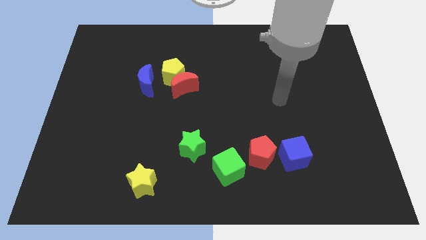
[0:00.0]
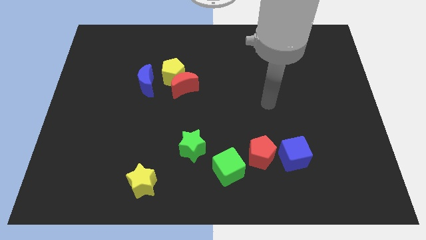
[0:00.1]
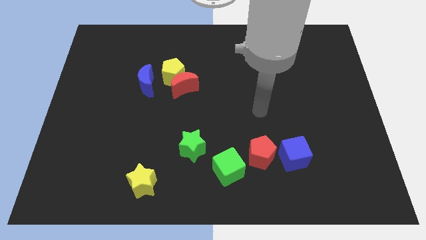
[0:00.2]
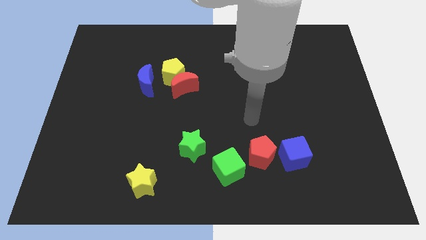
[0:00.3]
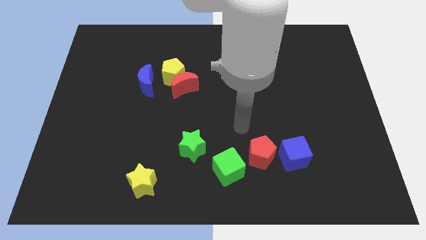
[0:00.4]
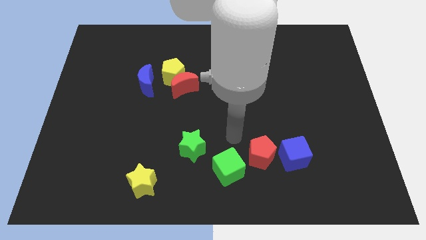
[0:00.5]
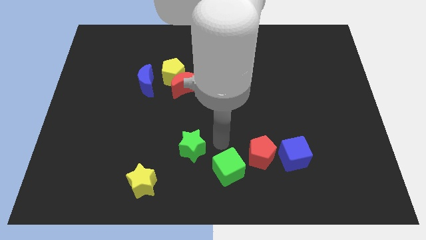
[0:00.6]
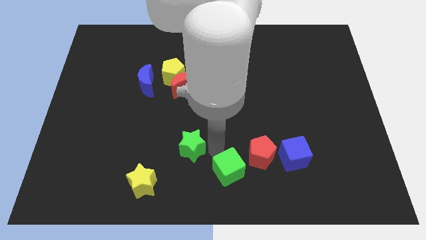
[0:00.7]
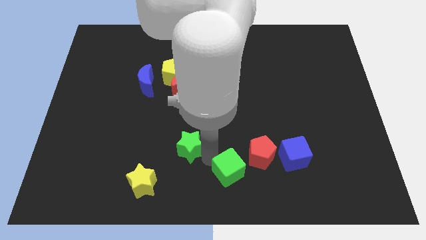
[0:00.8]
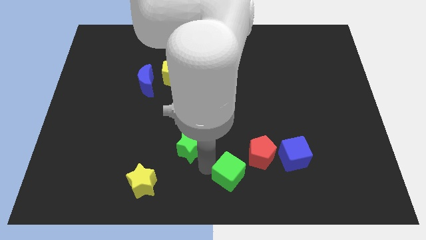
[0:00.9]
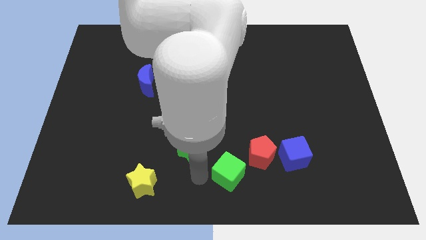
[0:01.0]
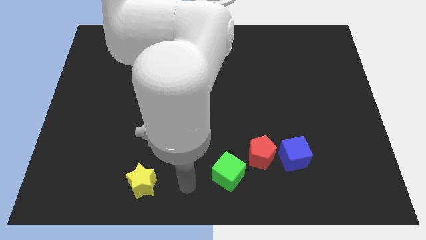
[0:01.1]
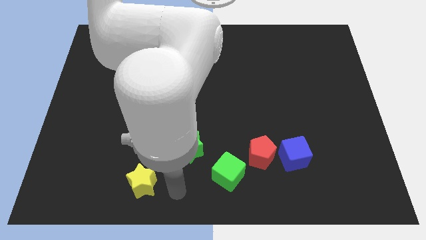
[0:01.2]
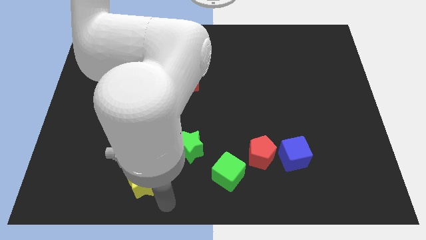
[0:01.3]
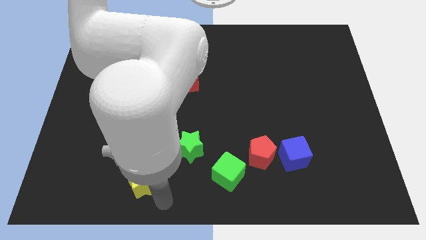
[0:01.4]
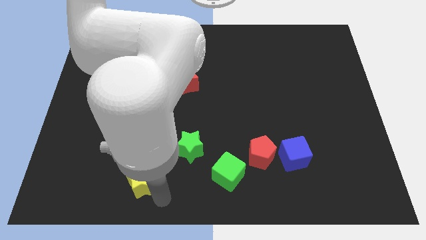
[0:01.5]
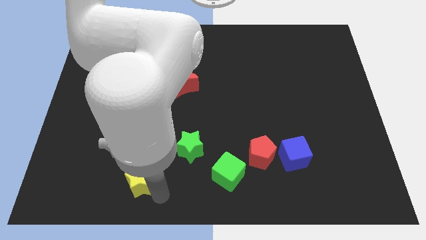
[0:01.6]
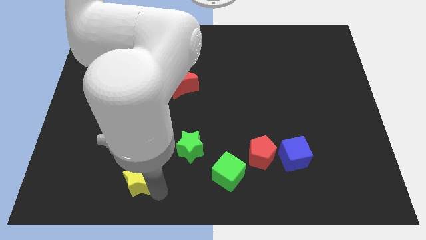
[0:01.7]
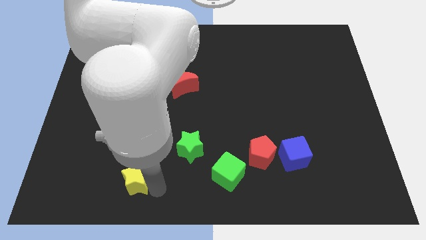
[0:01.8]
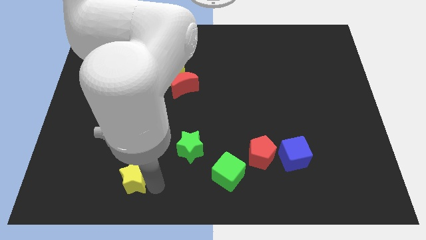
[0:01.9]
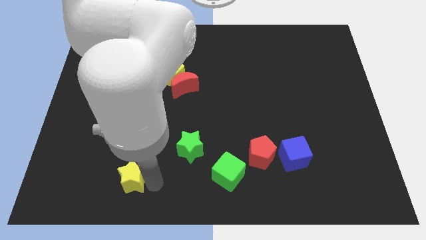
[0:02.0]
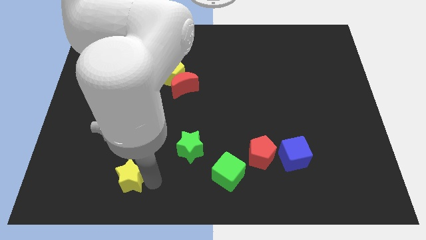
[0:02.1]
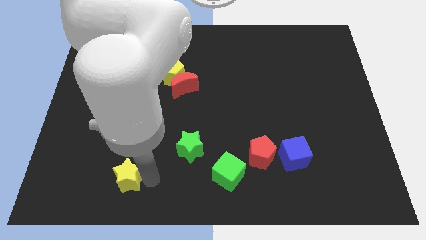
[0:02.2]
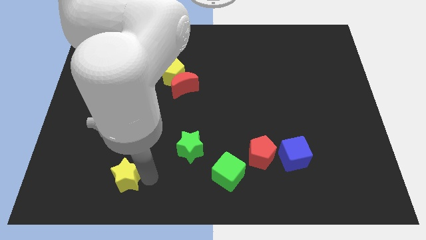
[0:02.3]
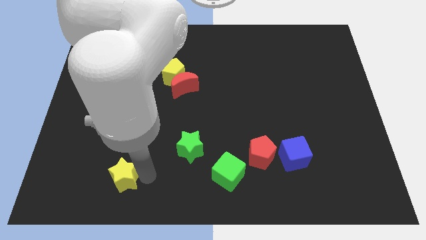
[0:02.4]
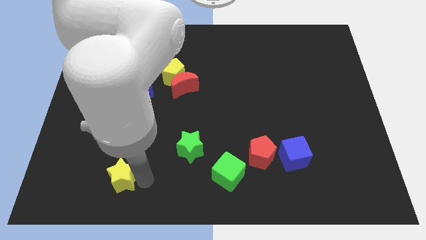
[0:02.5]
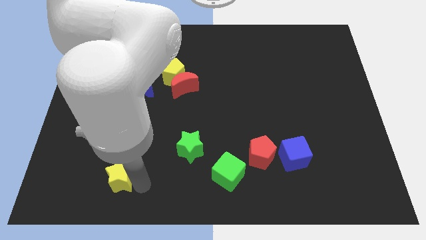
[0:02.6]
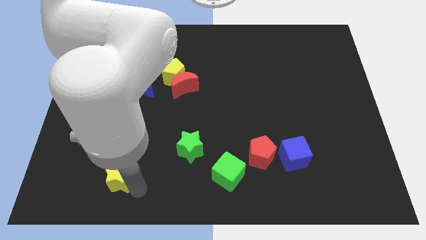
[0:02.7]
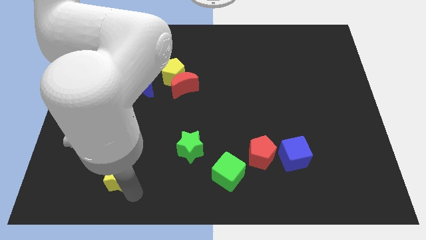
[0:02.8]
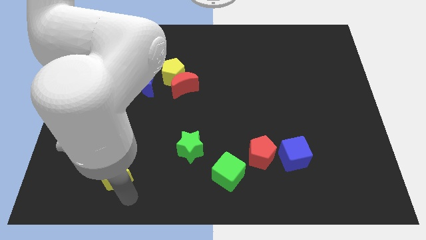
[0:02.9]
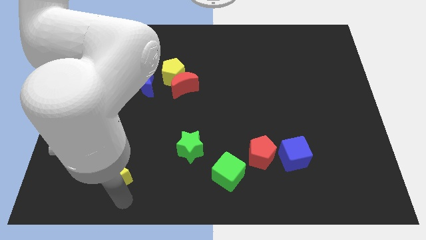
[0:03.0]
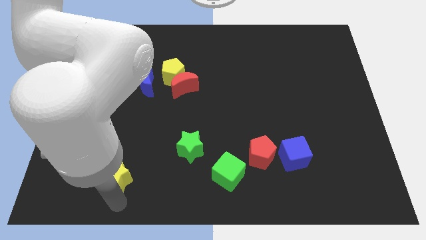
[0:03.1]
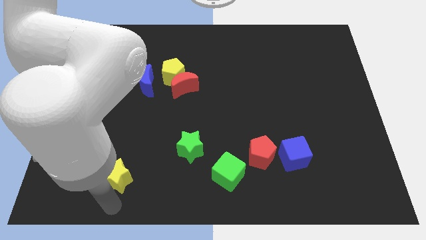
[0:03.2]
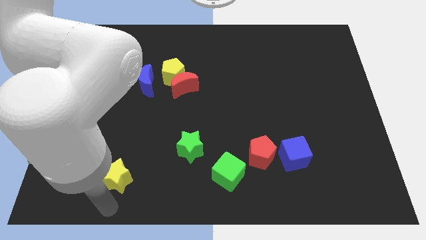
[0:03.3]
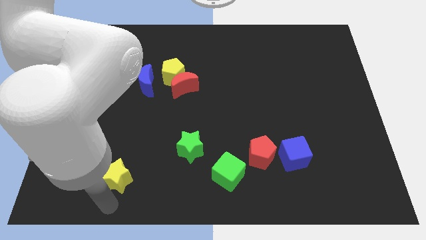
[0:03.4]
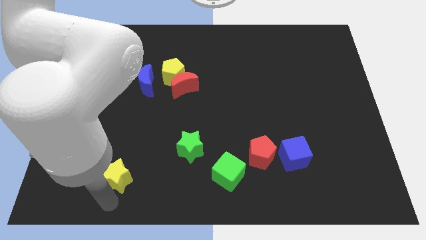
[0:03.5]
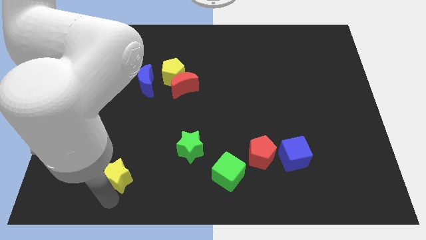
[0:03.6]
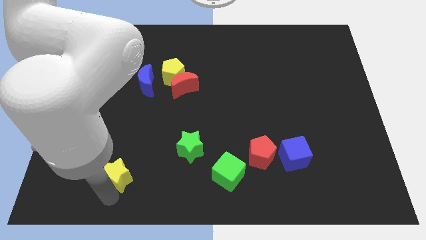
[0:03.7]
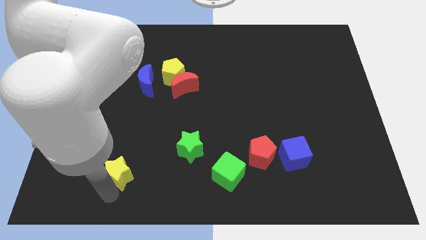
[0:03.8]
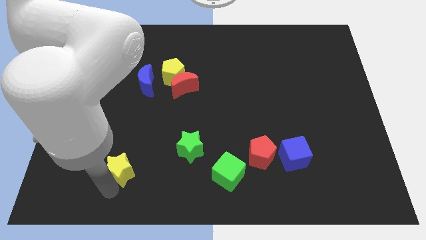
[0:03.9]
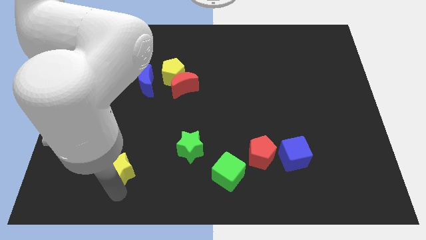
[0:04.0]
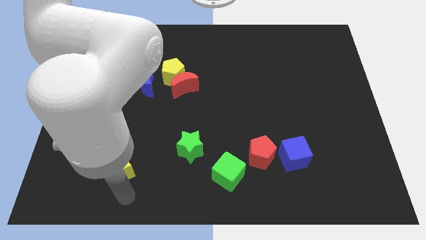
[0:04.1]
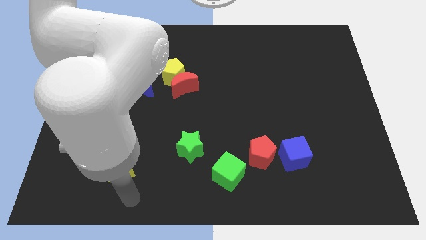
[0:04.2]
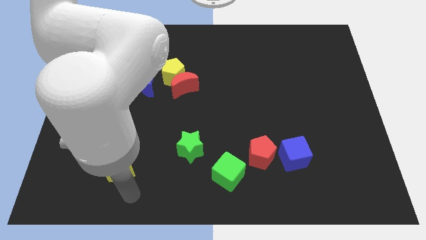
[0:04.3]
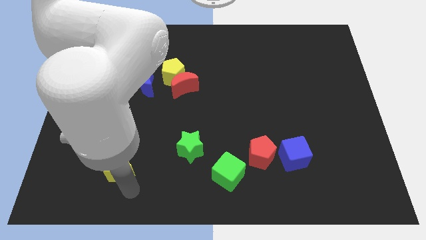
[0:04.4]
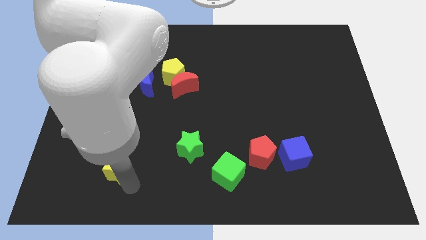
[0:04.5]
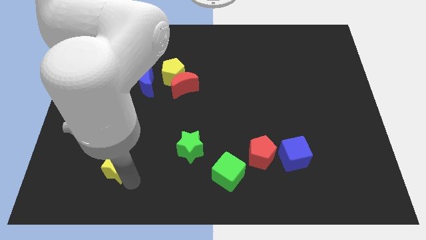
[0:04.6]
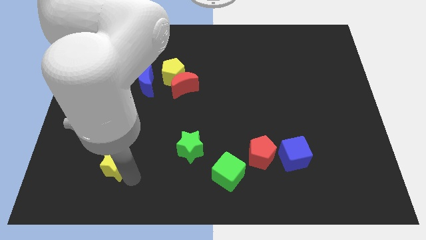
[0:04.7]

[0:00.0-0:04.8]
slightly move the yellow star diagonally upwards and left

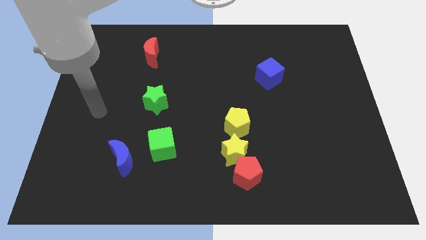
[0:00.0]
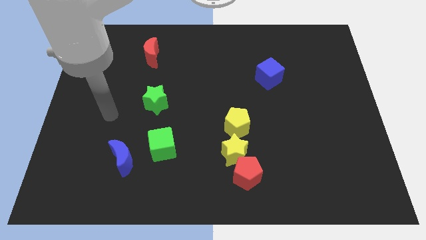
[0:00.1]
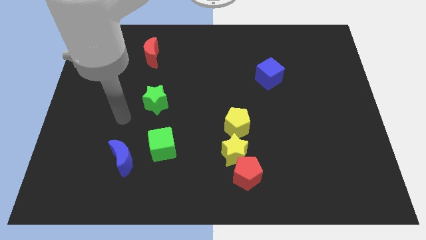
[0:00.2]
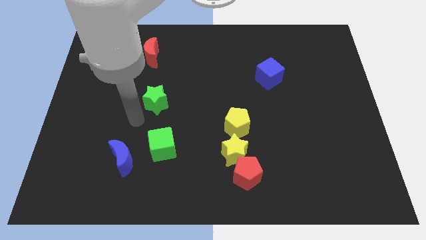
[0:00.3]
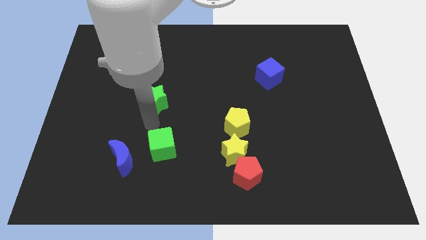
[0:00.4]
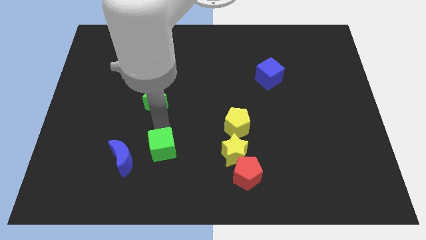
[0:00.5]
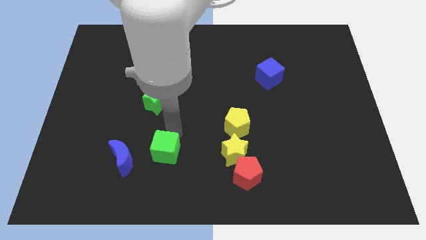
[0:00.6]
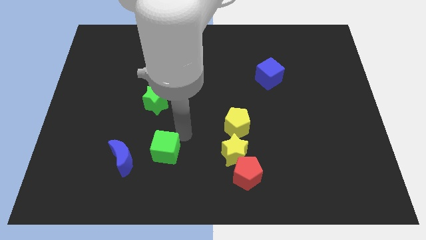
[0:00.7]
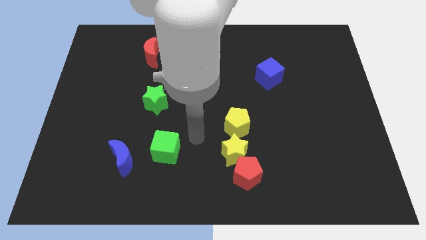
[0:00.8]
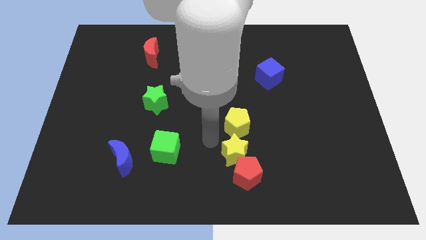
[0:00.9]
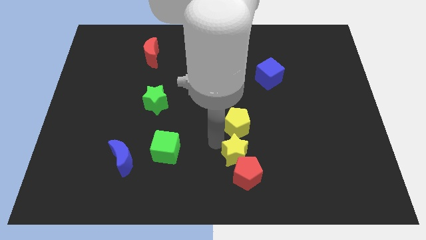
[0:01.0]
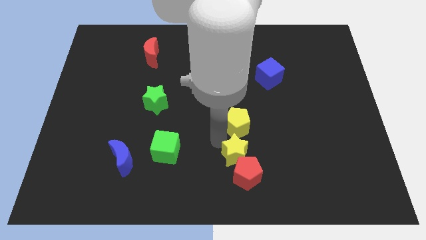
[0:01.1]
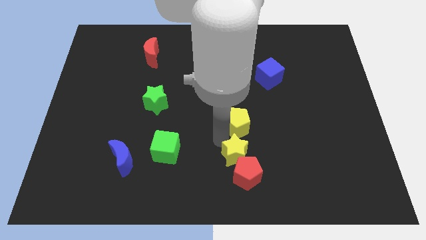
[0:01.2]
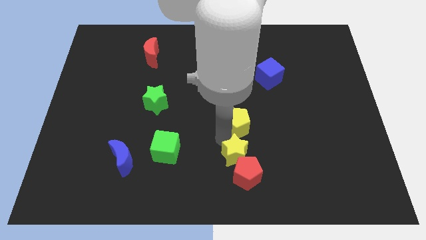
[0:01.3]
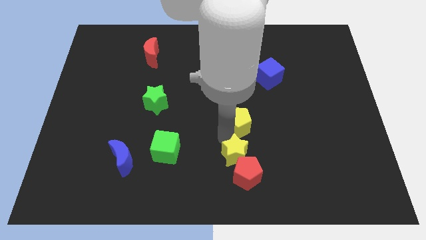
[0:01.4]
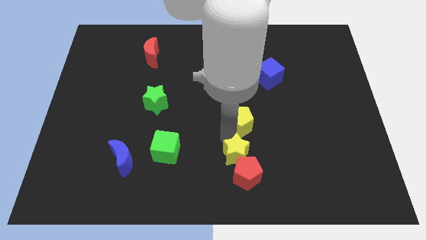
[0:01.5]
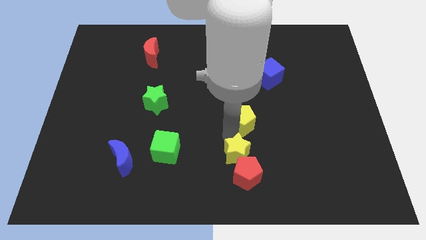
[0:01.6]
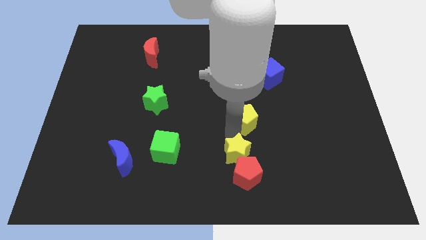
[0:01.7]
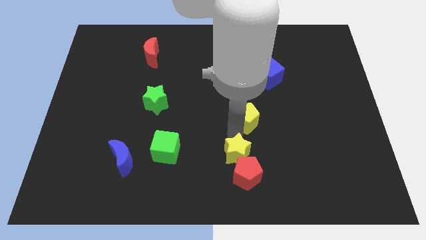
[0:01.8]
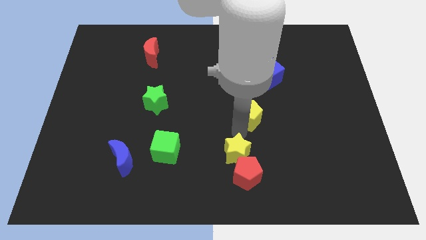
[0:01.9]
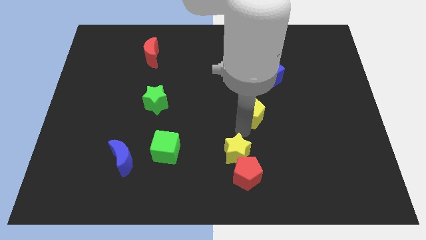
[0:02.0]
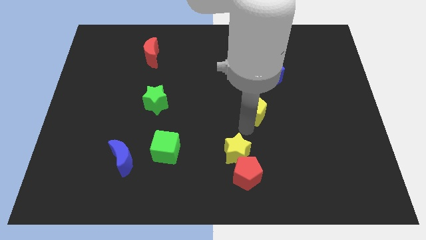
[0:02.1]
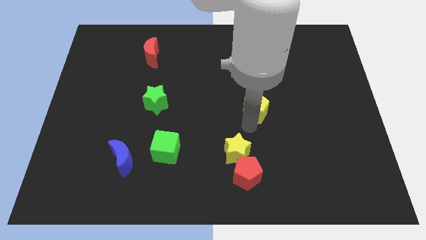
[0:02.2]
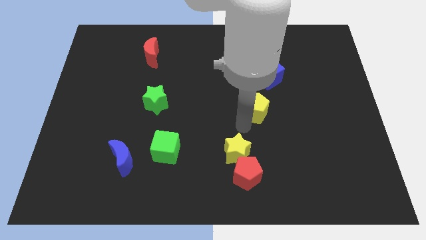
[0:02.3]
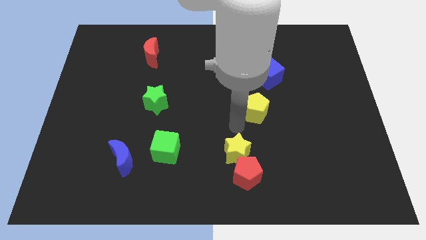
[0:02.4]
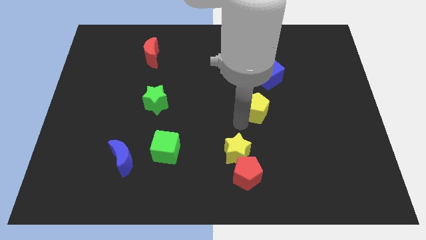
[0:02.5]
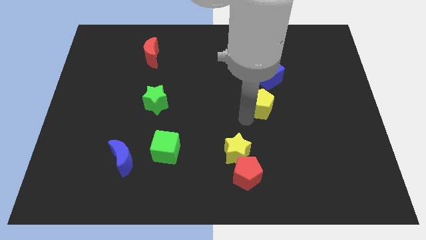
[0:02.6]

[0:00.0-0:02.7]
move the yellow pentagon a bit upwards and to the right

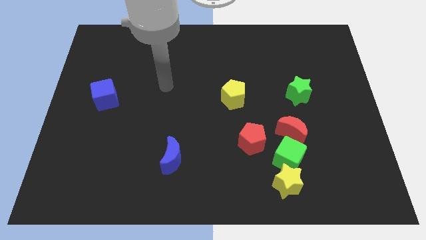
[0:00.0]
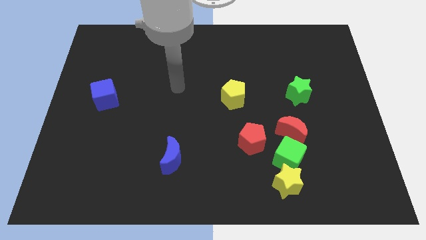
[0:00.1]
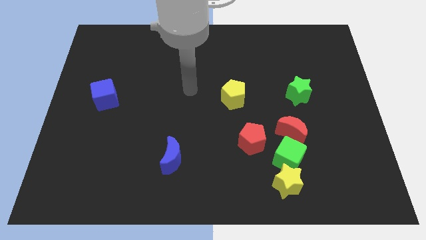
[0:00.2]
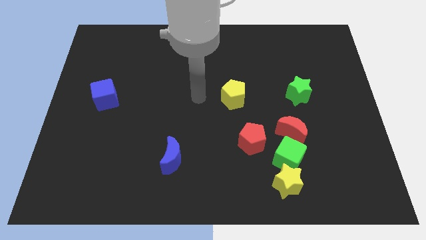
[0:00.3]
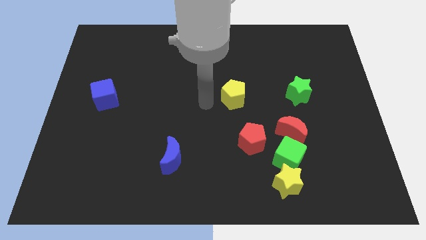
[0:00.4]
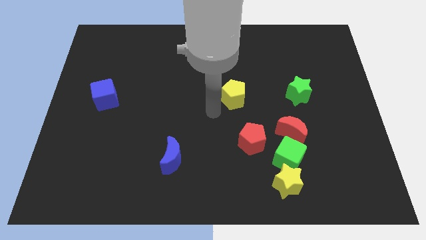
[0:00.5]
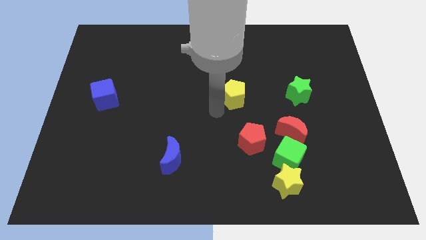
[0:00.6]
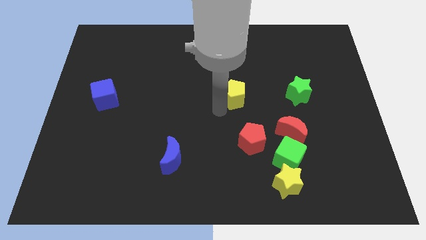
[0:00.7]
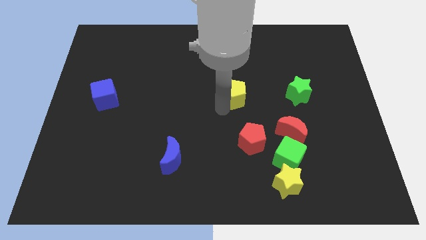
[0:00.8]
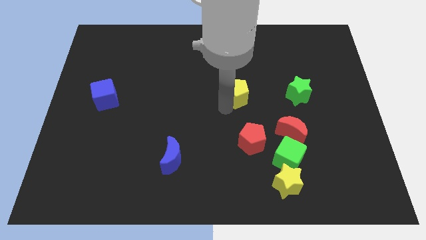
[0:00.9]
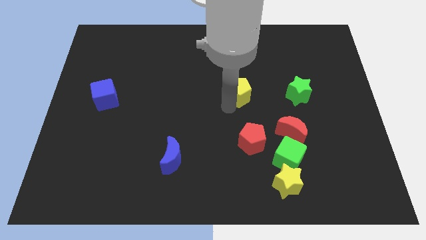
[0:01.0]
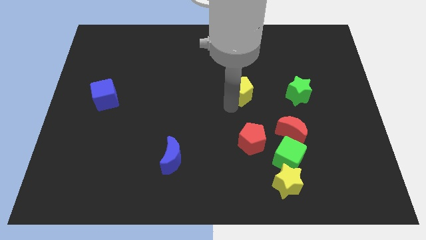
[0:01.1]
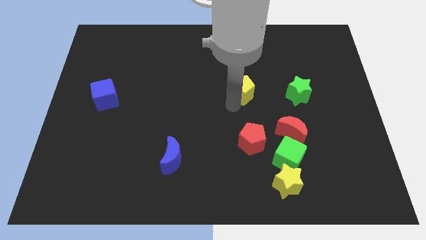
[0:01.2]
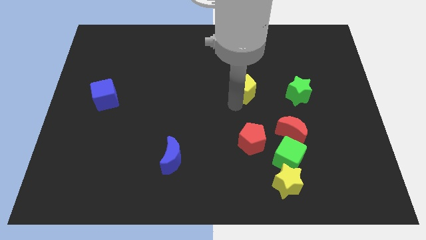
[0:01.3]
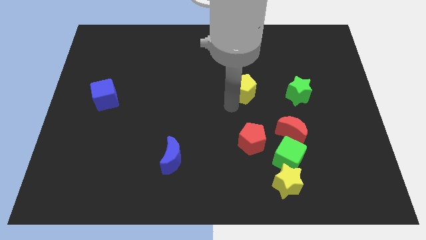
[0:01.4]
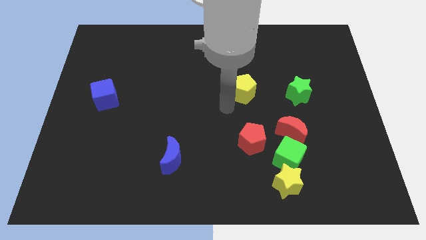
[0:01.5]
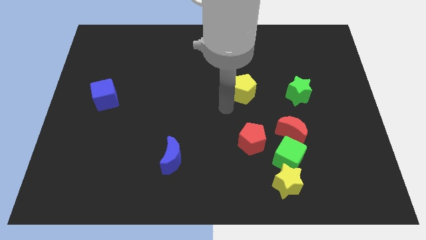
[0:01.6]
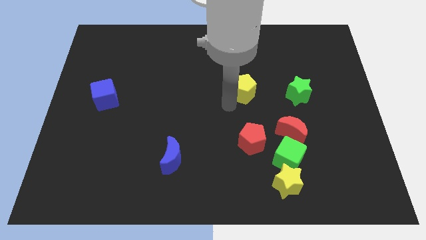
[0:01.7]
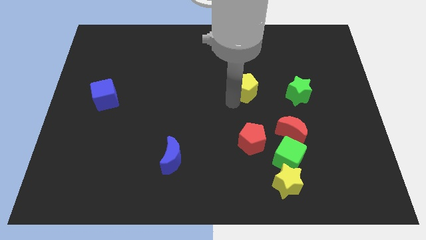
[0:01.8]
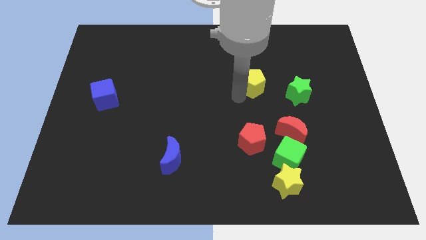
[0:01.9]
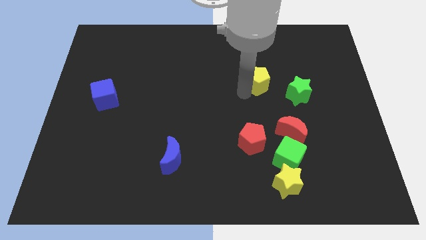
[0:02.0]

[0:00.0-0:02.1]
move the yellow pentagon upwards and right diagonally a bit
